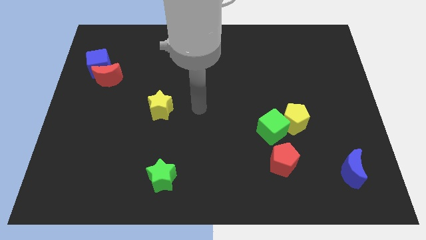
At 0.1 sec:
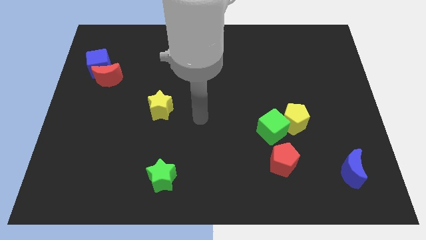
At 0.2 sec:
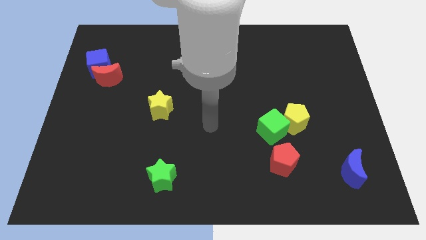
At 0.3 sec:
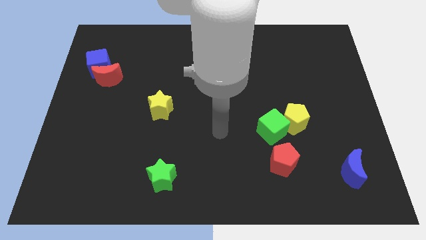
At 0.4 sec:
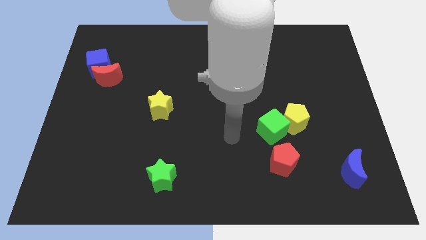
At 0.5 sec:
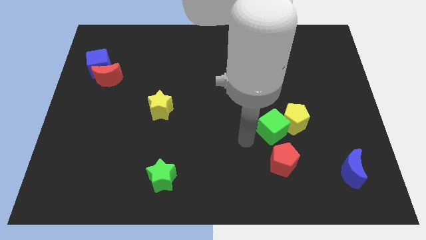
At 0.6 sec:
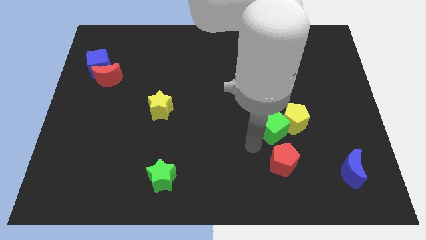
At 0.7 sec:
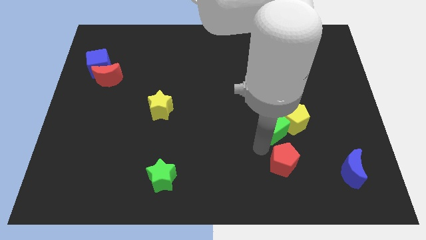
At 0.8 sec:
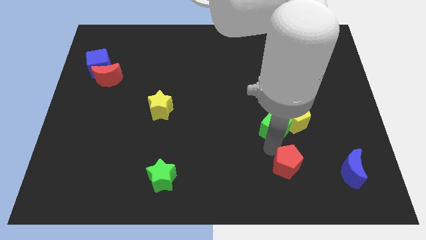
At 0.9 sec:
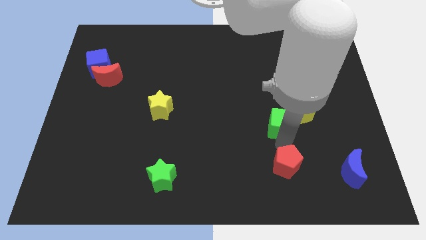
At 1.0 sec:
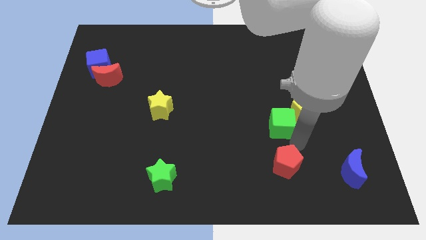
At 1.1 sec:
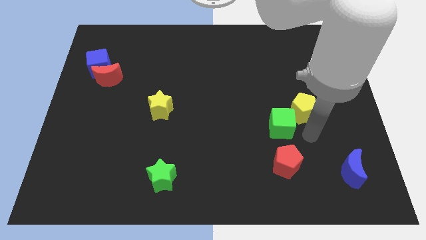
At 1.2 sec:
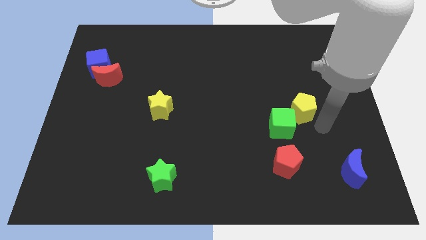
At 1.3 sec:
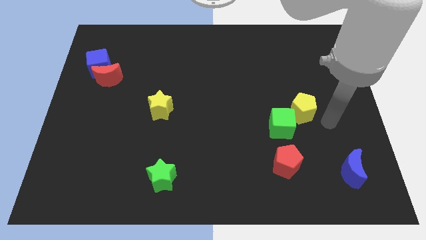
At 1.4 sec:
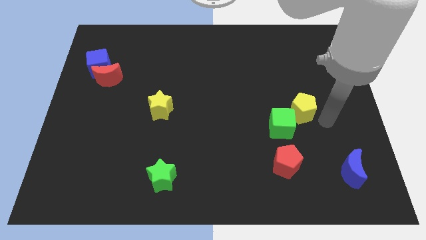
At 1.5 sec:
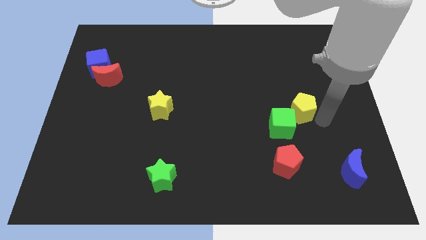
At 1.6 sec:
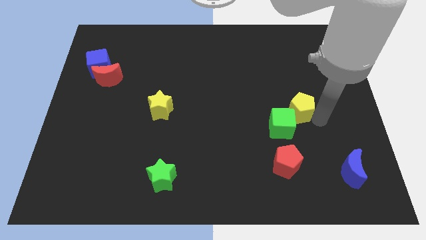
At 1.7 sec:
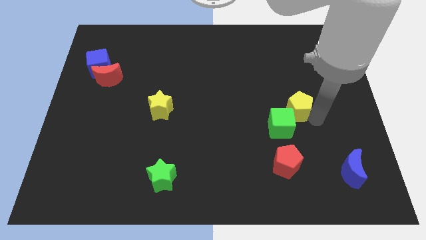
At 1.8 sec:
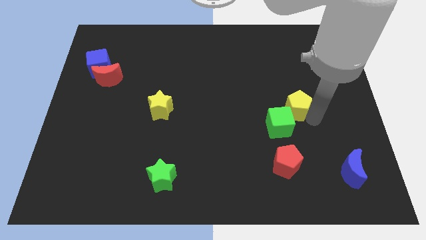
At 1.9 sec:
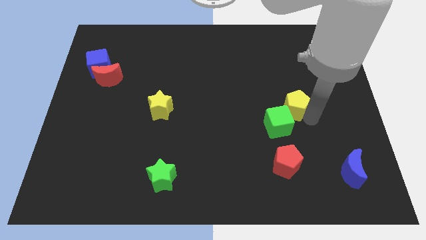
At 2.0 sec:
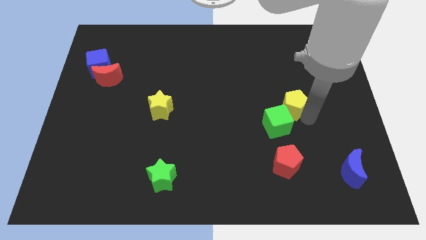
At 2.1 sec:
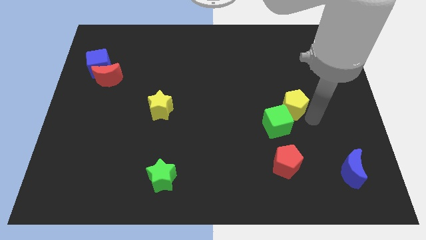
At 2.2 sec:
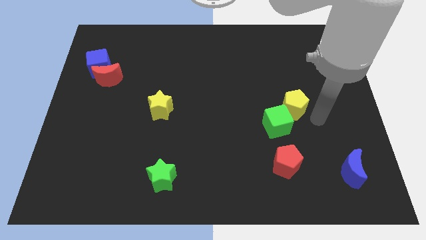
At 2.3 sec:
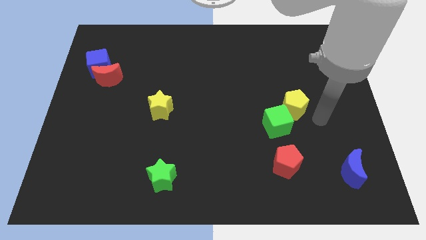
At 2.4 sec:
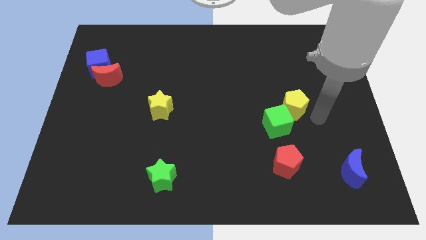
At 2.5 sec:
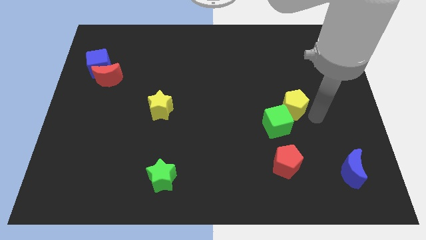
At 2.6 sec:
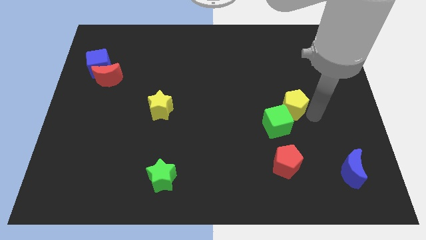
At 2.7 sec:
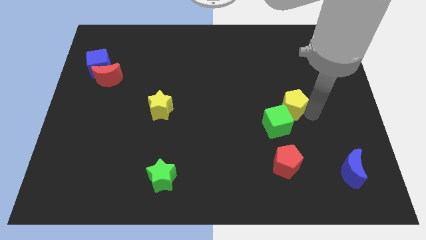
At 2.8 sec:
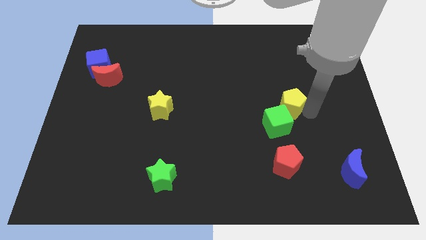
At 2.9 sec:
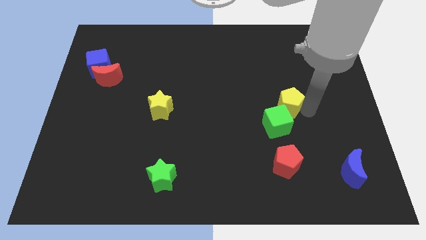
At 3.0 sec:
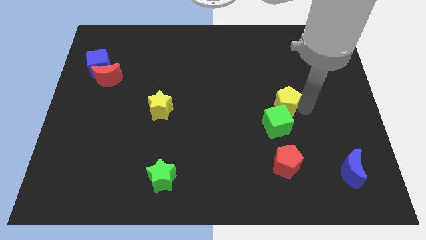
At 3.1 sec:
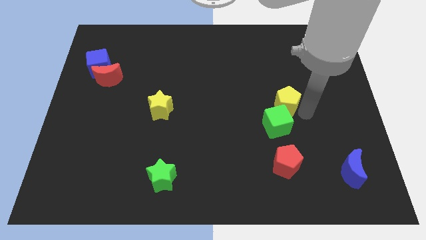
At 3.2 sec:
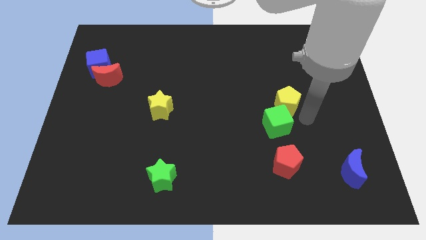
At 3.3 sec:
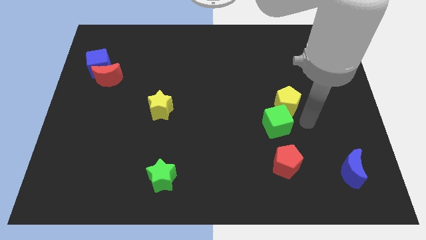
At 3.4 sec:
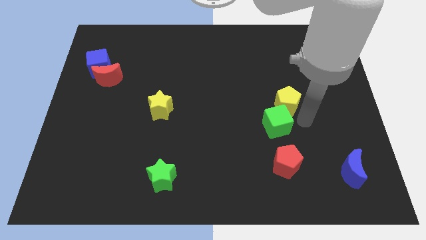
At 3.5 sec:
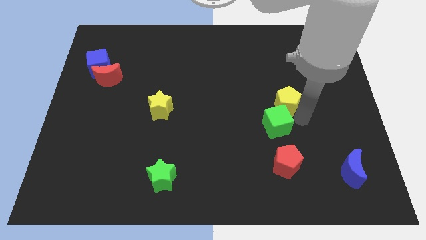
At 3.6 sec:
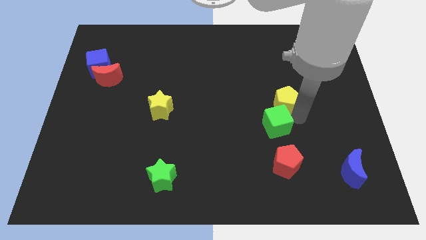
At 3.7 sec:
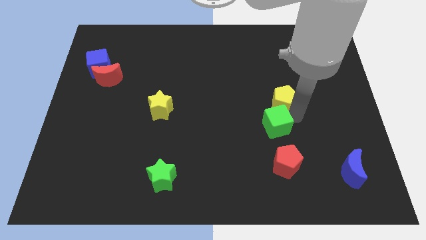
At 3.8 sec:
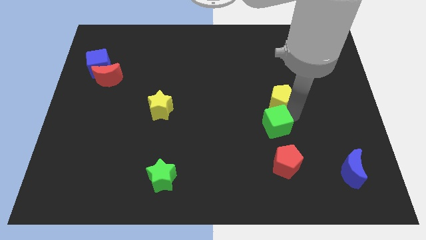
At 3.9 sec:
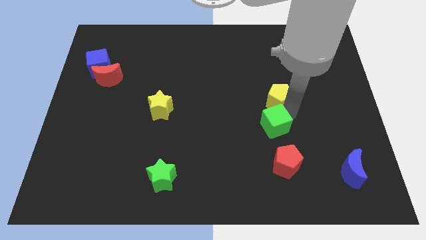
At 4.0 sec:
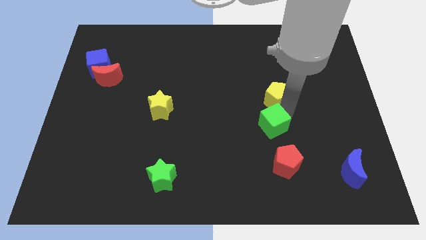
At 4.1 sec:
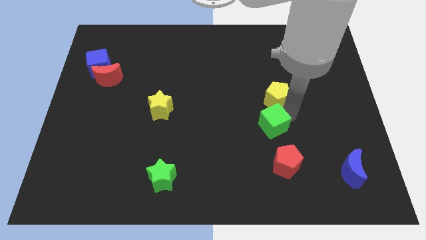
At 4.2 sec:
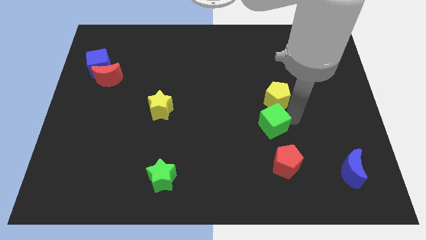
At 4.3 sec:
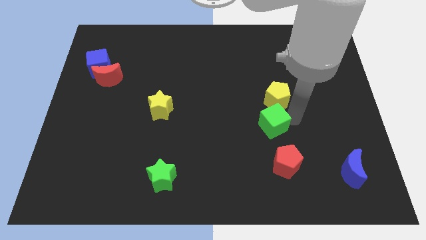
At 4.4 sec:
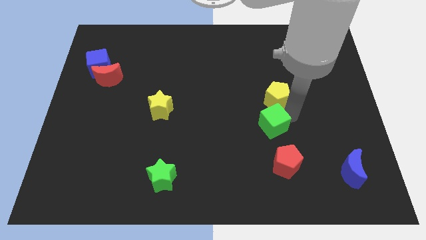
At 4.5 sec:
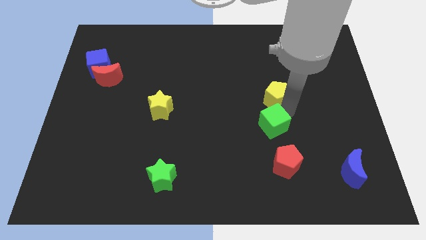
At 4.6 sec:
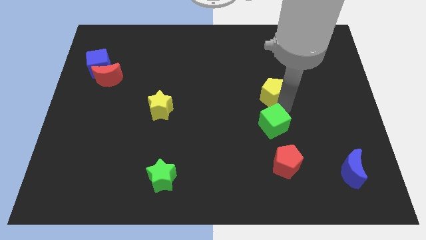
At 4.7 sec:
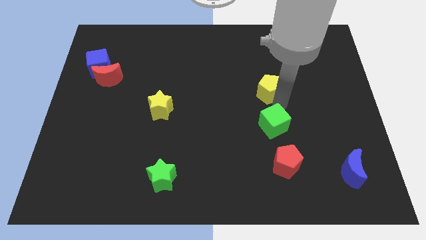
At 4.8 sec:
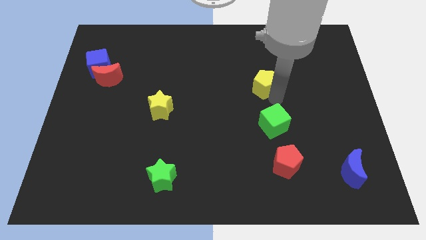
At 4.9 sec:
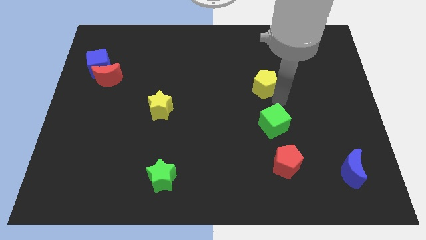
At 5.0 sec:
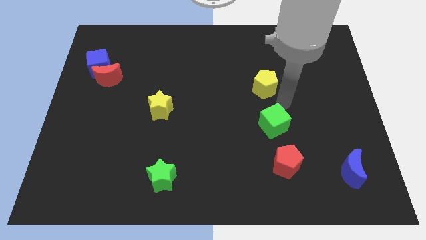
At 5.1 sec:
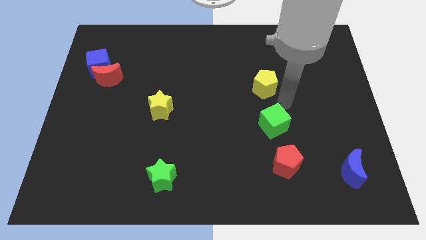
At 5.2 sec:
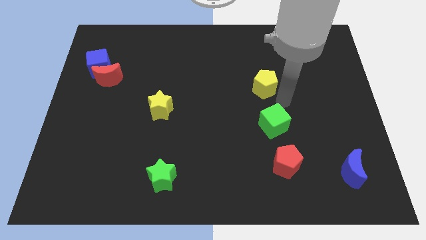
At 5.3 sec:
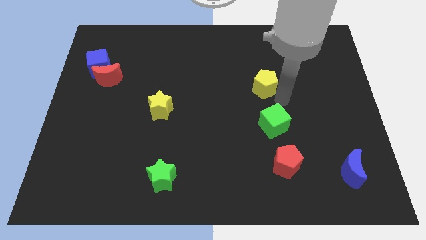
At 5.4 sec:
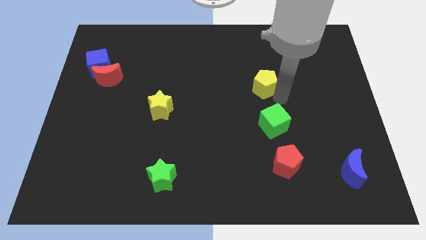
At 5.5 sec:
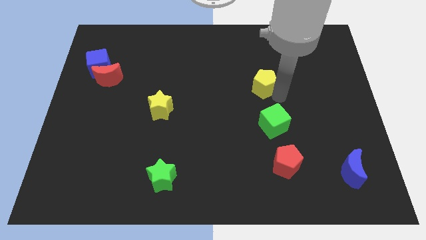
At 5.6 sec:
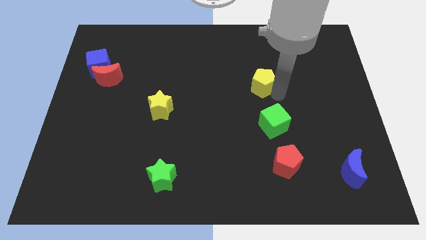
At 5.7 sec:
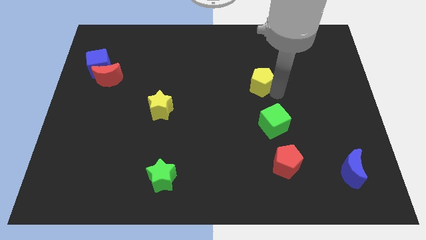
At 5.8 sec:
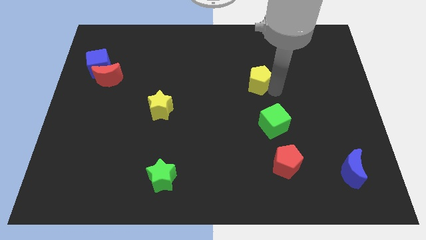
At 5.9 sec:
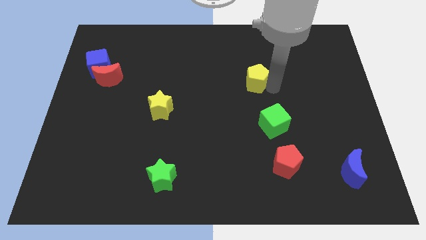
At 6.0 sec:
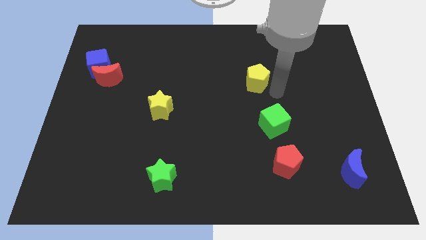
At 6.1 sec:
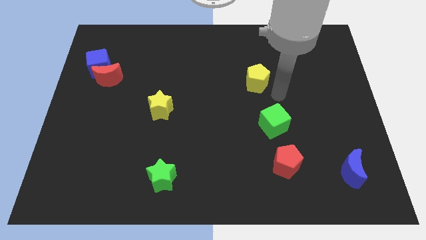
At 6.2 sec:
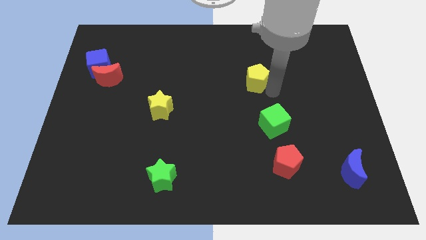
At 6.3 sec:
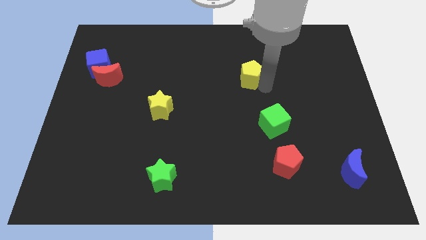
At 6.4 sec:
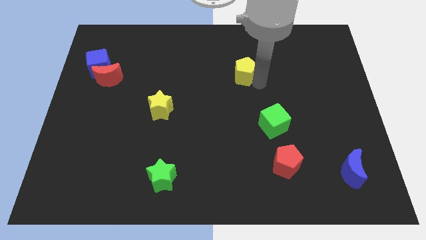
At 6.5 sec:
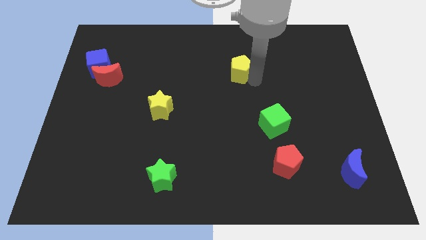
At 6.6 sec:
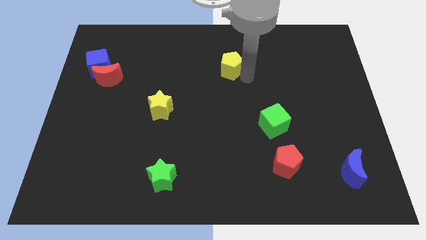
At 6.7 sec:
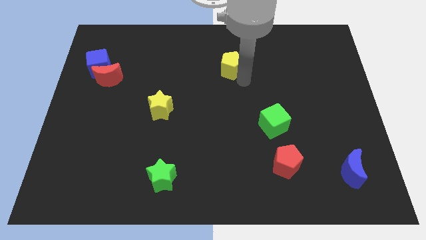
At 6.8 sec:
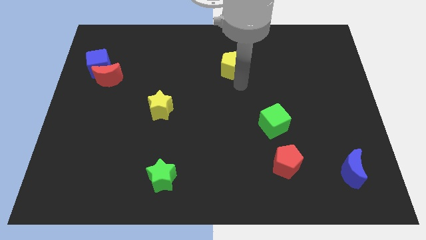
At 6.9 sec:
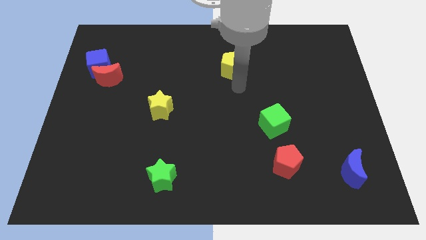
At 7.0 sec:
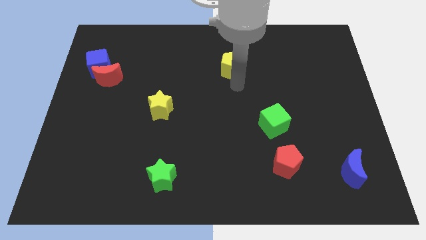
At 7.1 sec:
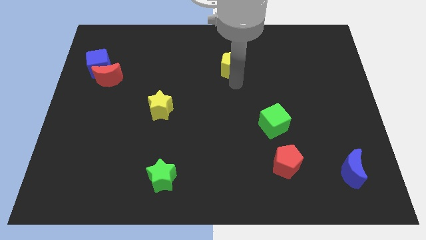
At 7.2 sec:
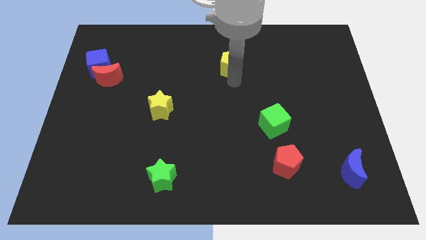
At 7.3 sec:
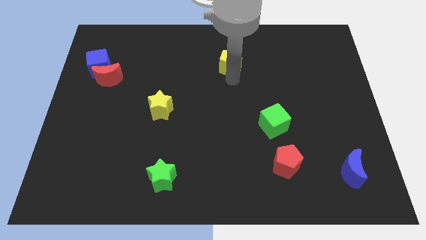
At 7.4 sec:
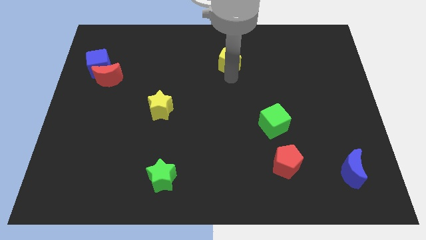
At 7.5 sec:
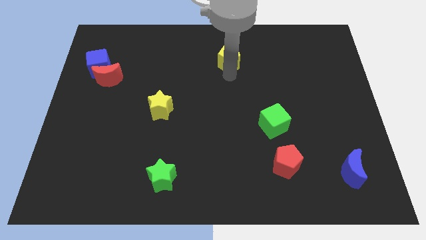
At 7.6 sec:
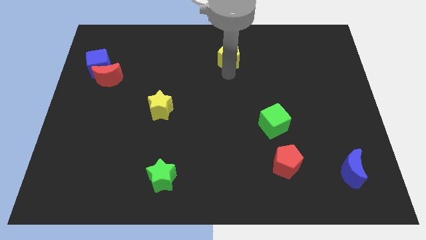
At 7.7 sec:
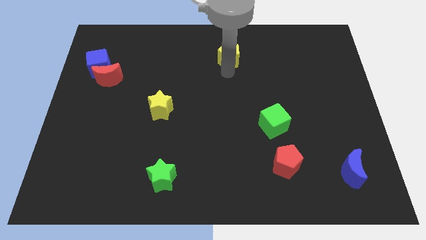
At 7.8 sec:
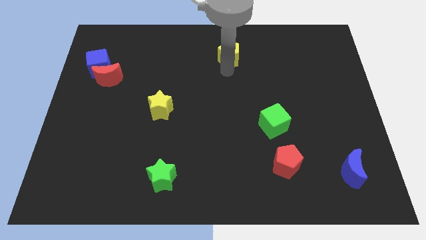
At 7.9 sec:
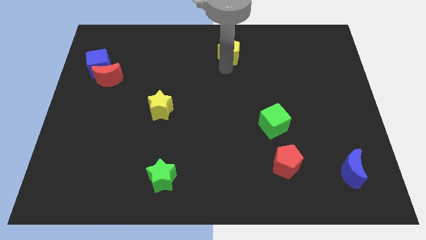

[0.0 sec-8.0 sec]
put the yellow pentagon to the top side
